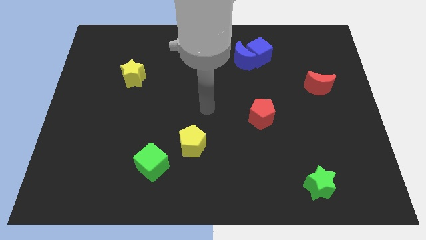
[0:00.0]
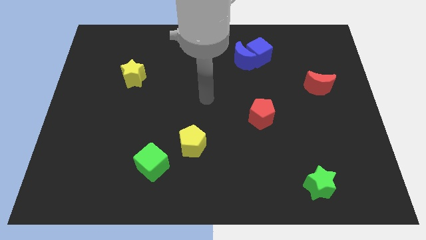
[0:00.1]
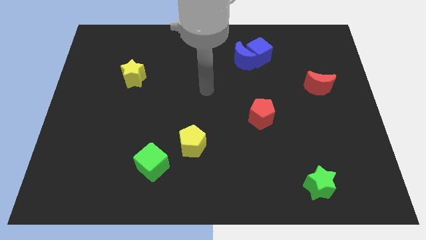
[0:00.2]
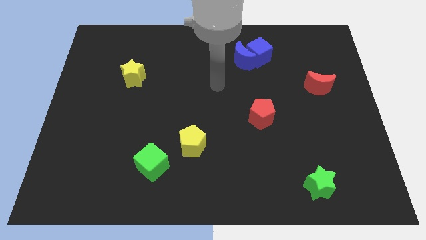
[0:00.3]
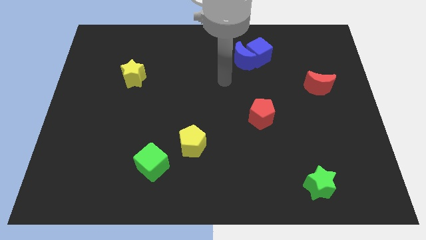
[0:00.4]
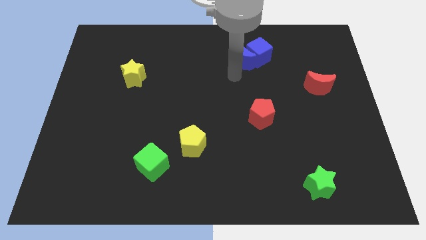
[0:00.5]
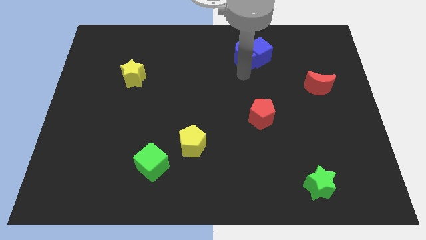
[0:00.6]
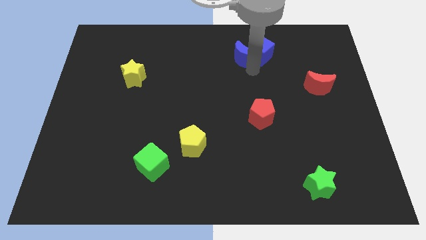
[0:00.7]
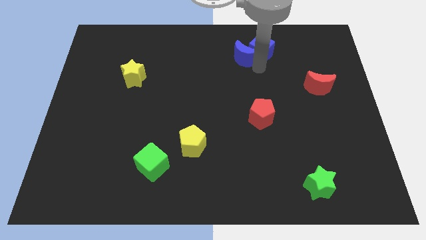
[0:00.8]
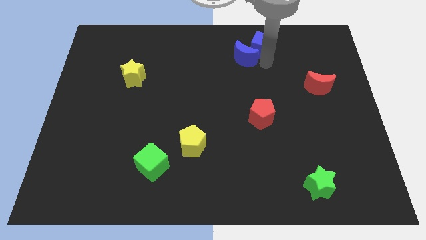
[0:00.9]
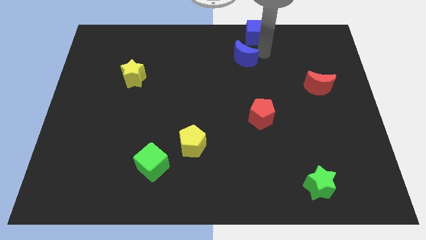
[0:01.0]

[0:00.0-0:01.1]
separate the blue moon from the blue cube

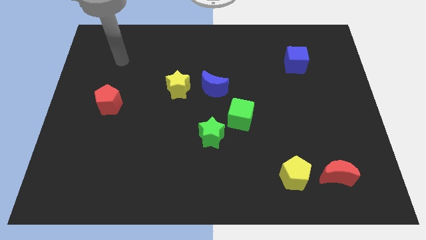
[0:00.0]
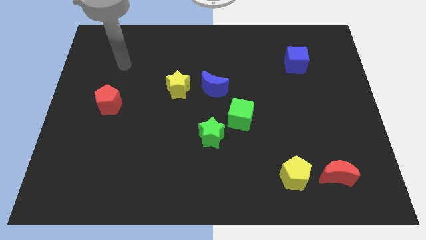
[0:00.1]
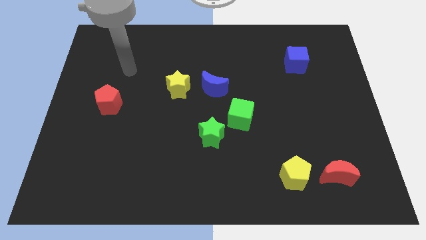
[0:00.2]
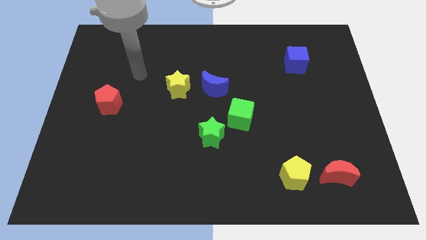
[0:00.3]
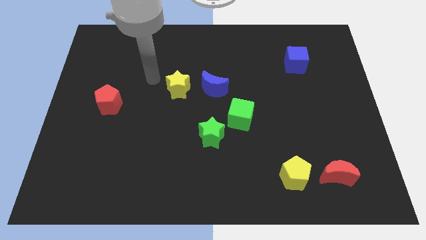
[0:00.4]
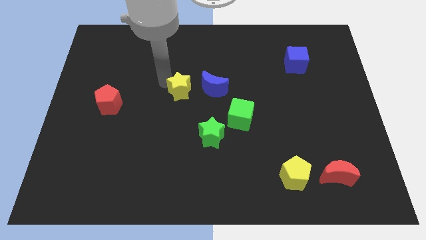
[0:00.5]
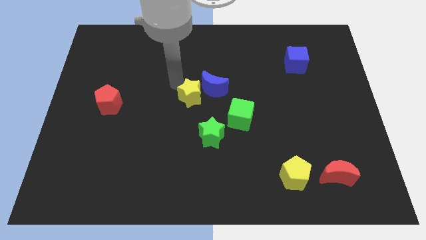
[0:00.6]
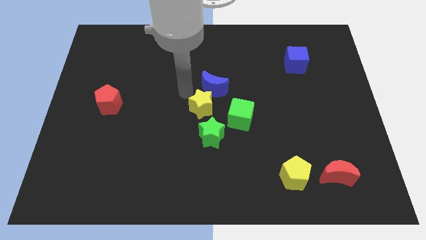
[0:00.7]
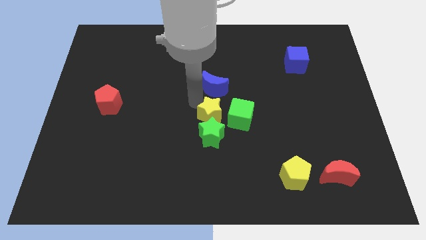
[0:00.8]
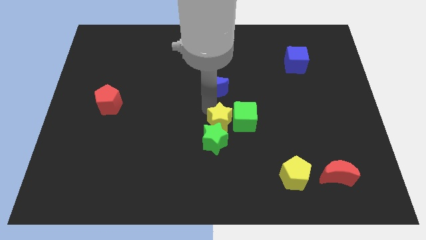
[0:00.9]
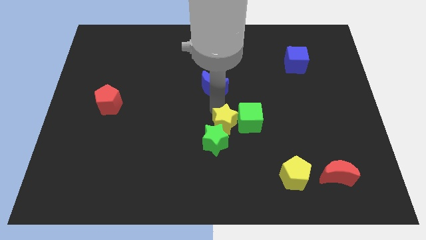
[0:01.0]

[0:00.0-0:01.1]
pull the blue moon apart from the yellow star

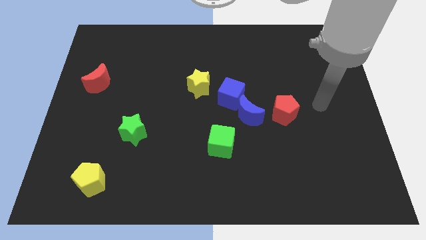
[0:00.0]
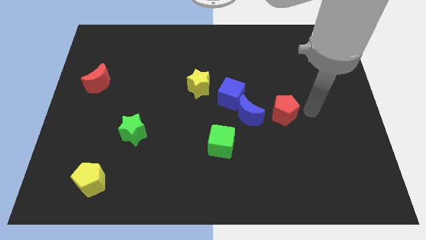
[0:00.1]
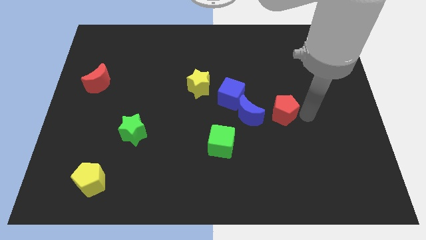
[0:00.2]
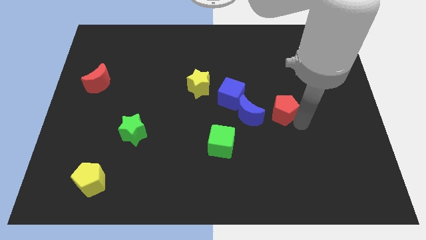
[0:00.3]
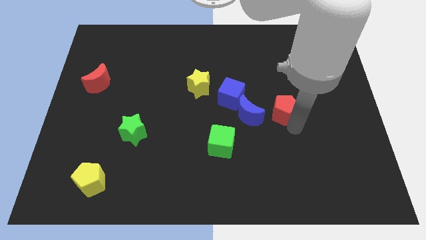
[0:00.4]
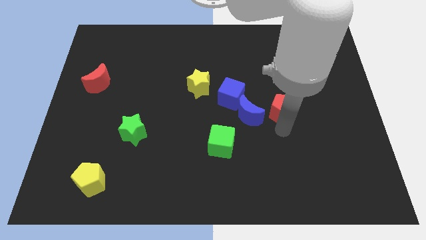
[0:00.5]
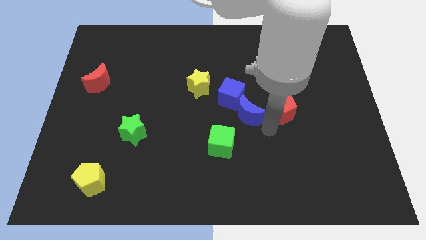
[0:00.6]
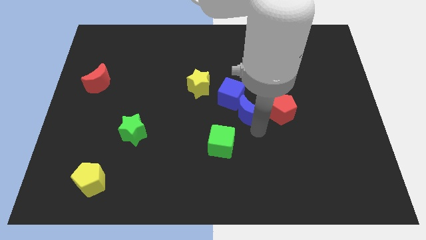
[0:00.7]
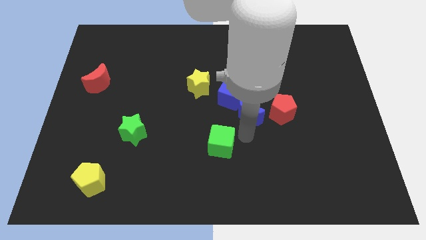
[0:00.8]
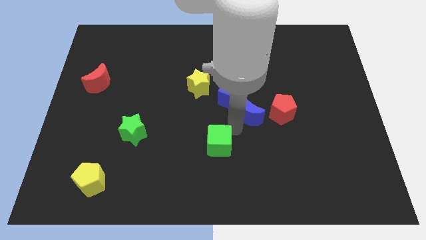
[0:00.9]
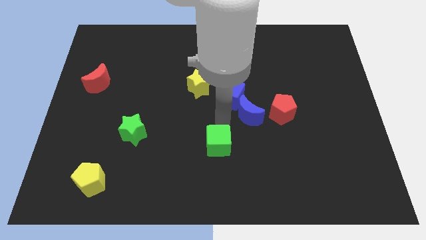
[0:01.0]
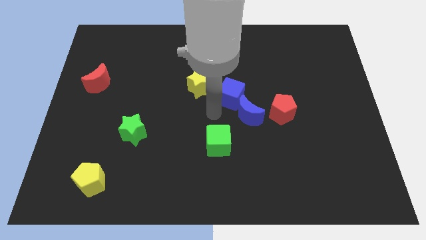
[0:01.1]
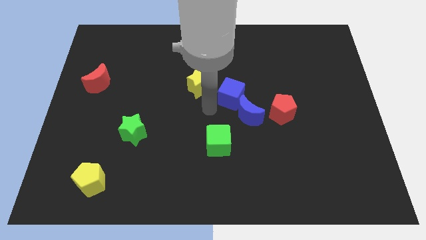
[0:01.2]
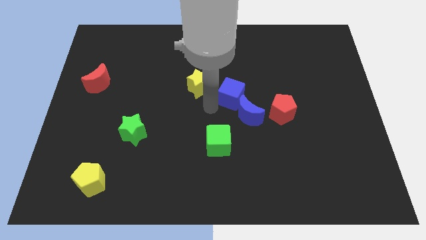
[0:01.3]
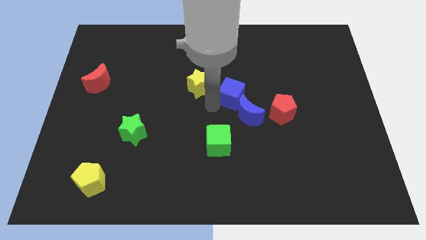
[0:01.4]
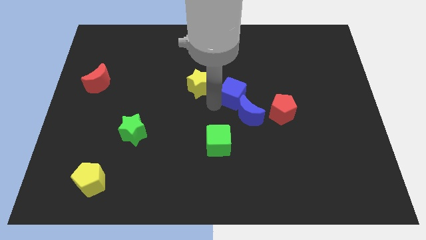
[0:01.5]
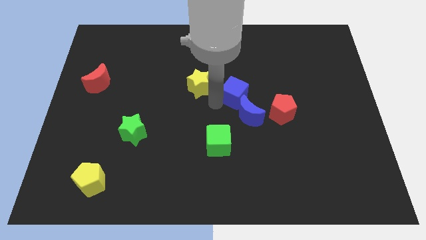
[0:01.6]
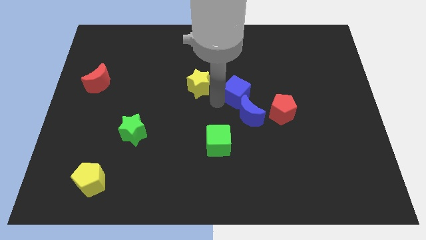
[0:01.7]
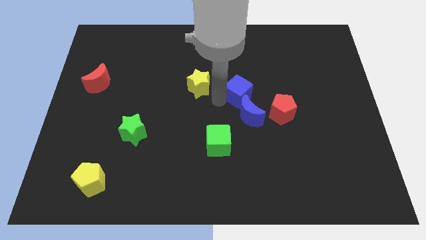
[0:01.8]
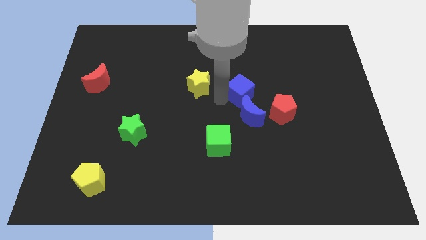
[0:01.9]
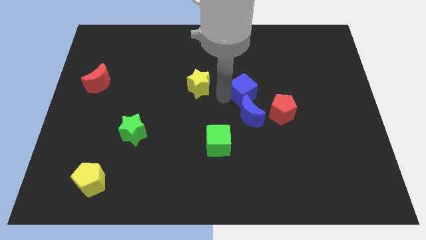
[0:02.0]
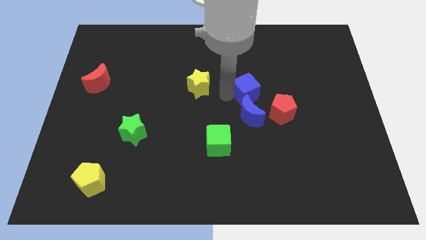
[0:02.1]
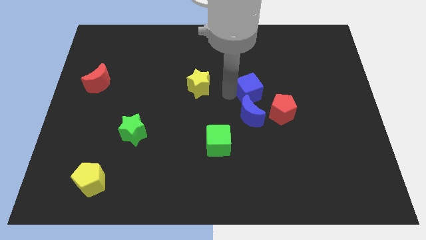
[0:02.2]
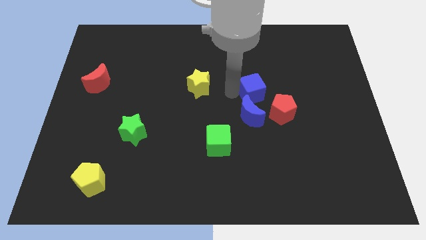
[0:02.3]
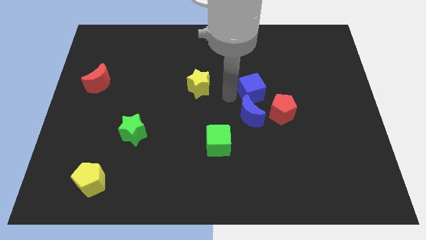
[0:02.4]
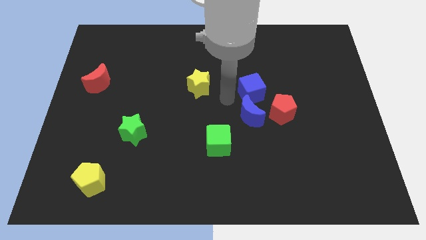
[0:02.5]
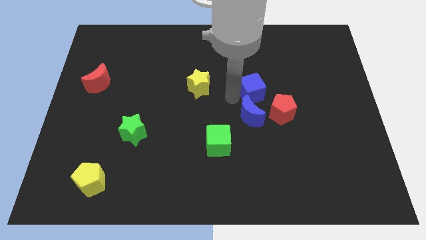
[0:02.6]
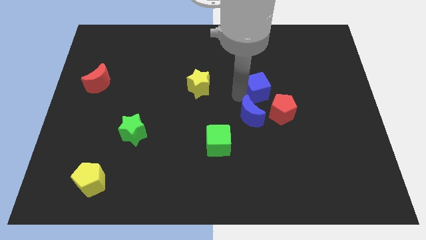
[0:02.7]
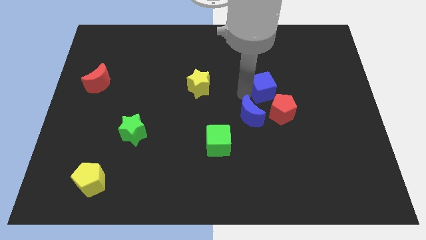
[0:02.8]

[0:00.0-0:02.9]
pull the blue cube apart from the blue moon and yellow star

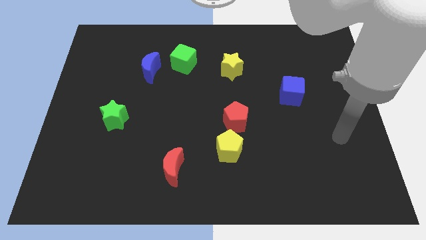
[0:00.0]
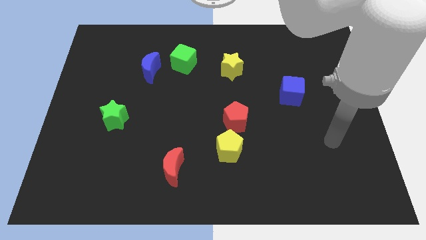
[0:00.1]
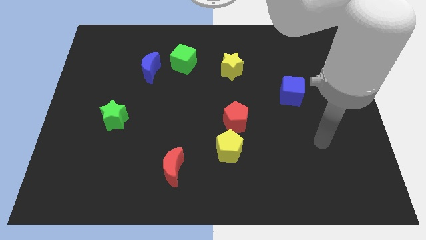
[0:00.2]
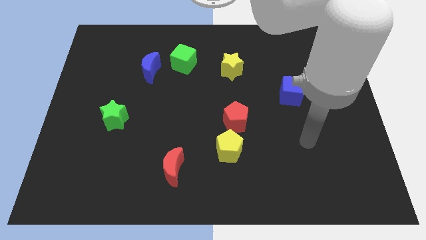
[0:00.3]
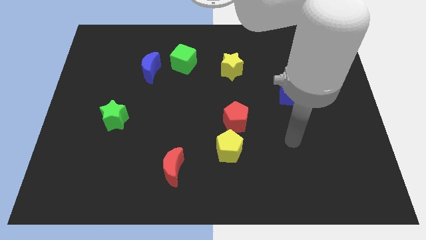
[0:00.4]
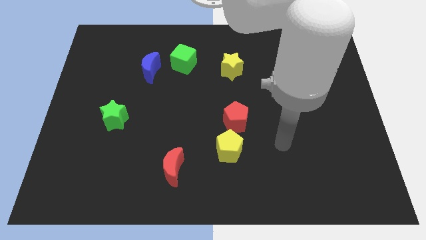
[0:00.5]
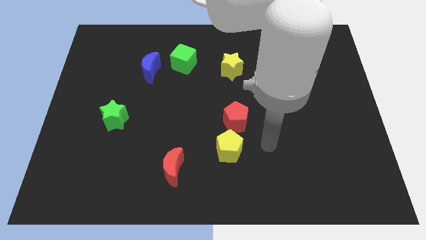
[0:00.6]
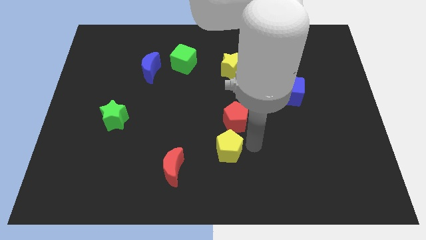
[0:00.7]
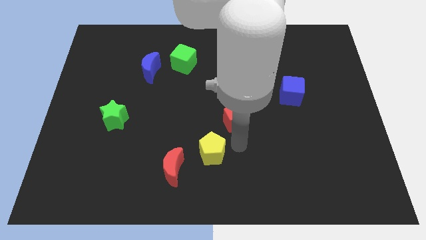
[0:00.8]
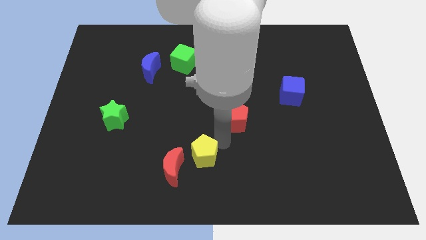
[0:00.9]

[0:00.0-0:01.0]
pull the red pentagon apart from the yellow pentagon

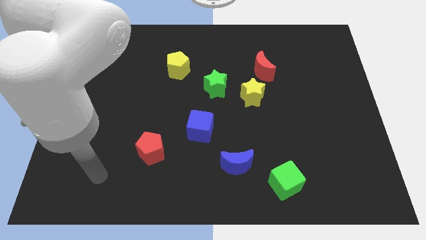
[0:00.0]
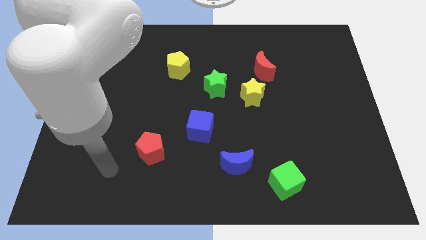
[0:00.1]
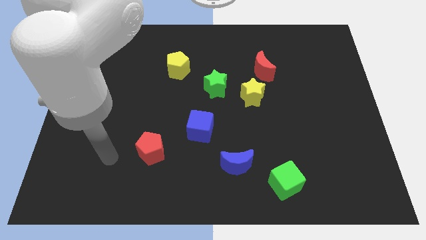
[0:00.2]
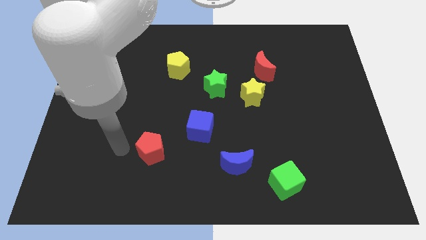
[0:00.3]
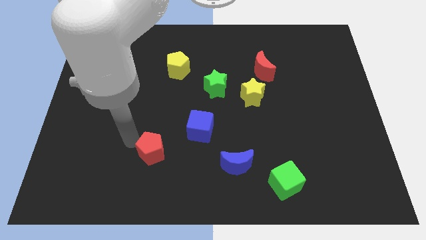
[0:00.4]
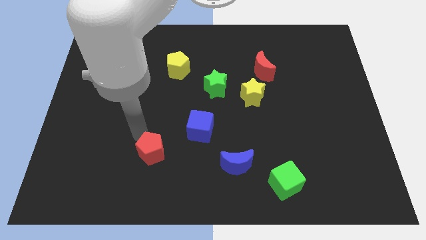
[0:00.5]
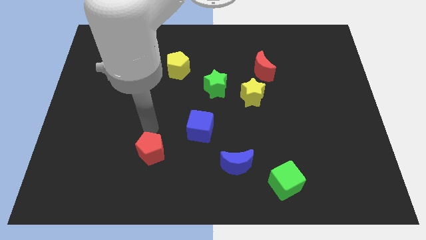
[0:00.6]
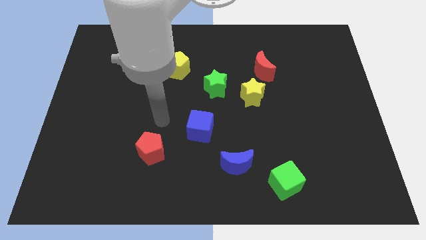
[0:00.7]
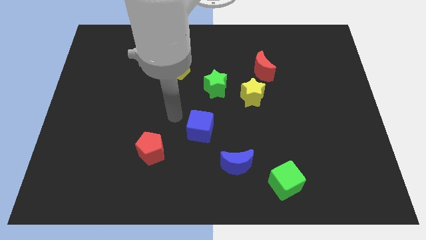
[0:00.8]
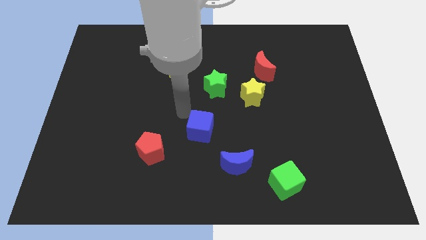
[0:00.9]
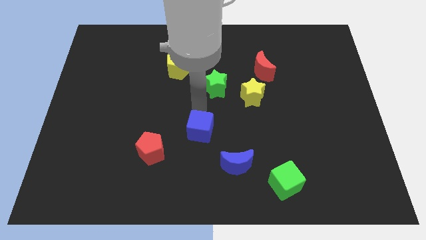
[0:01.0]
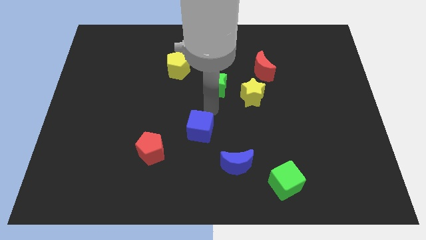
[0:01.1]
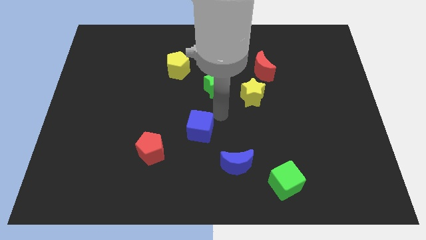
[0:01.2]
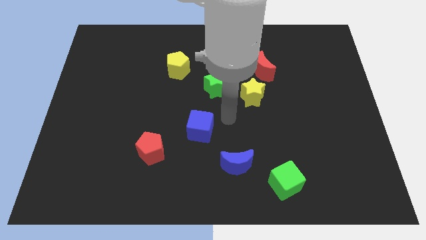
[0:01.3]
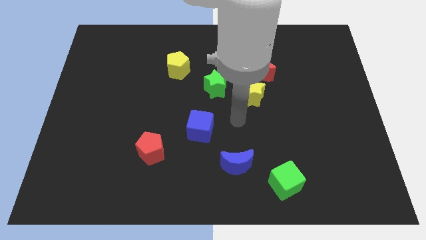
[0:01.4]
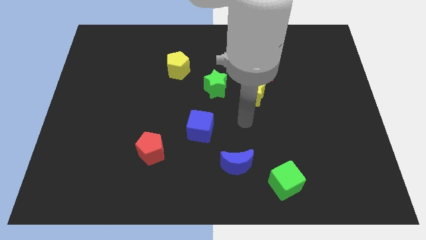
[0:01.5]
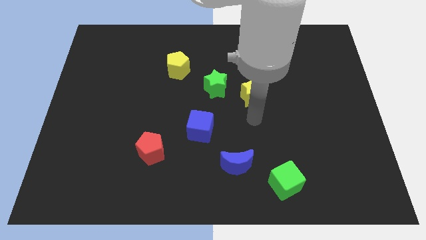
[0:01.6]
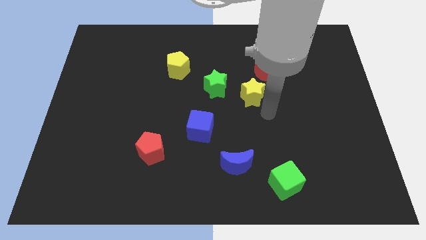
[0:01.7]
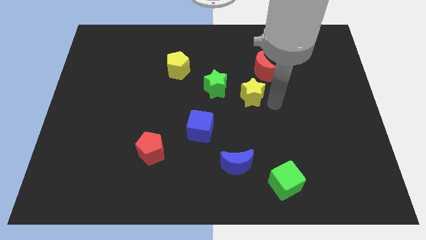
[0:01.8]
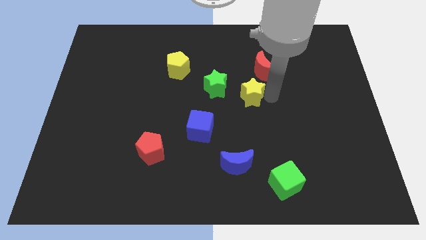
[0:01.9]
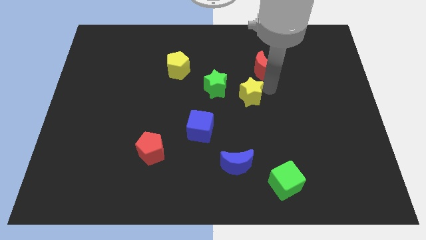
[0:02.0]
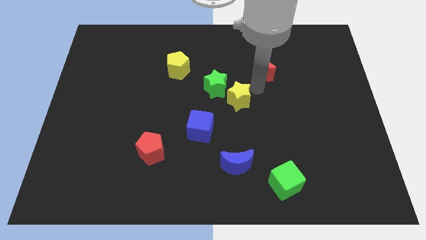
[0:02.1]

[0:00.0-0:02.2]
separate the red moon from the yellow star

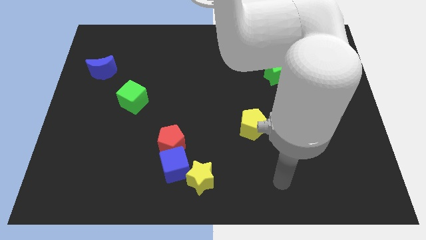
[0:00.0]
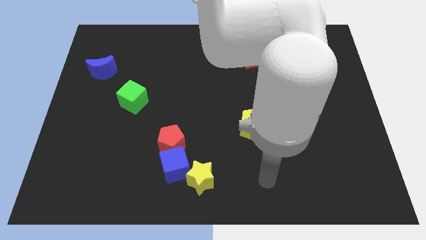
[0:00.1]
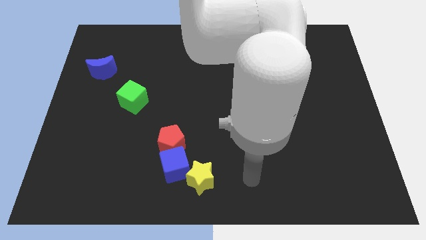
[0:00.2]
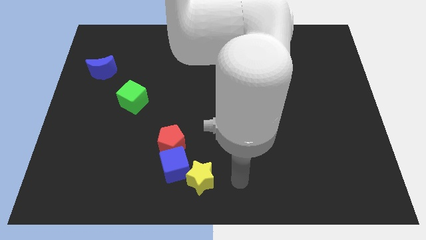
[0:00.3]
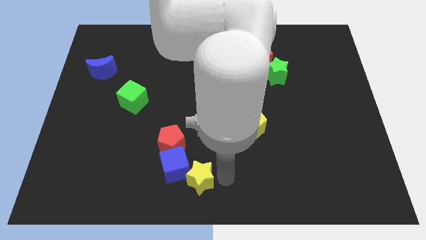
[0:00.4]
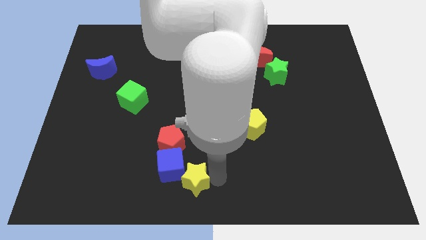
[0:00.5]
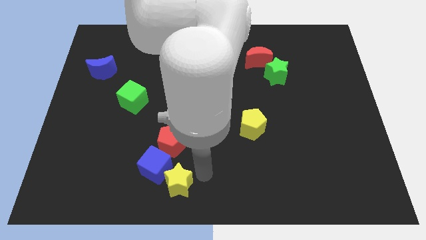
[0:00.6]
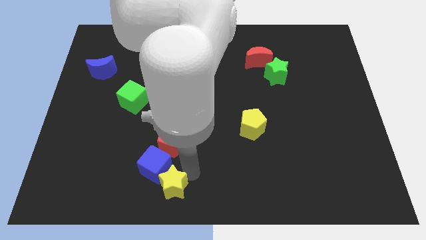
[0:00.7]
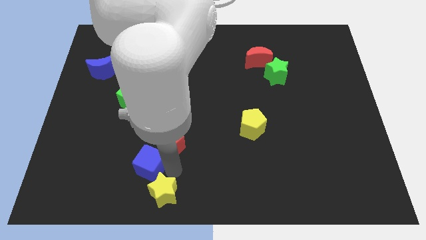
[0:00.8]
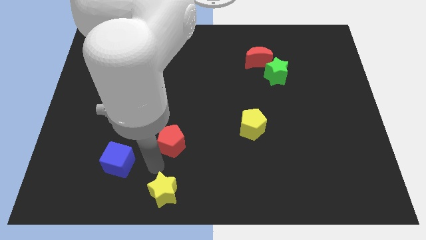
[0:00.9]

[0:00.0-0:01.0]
separate the red pentagon from the blue cube
